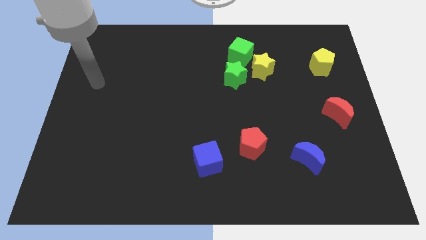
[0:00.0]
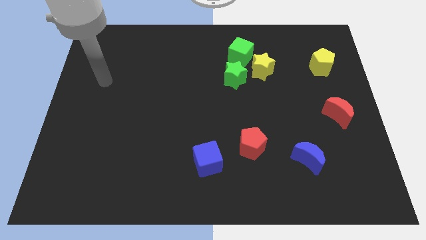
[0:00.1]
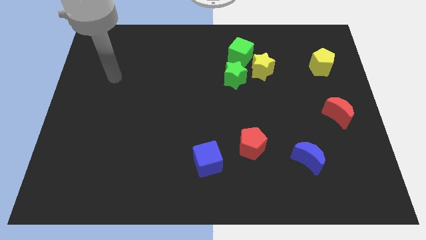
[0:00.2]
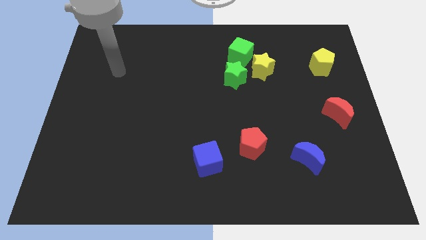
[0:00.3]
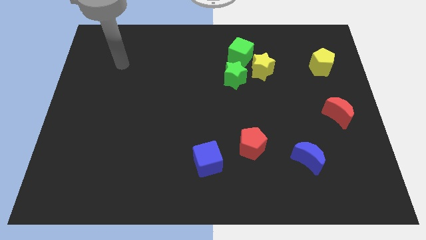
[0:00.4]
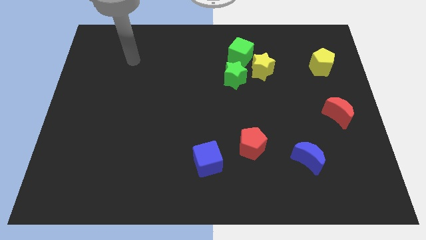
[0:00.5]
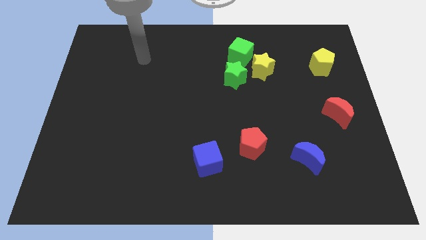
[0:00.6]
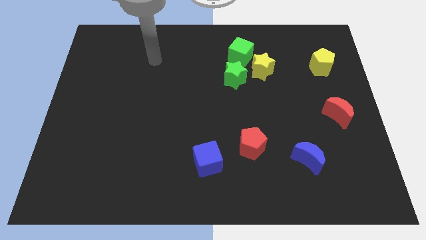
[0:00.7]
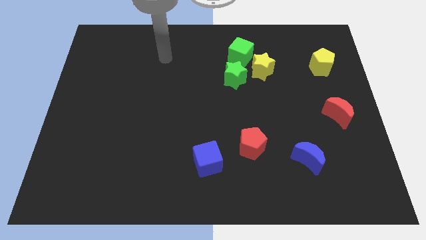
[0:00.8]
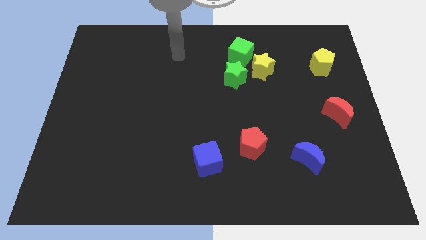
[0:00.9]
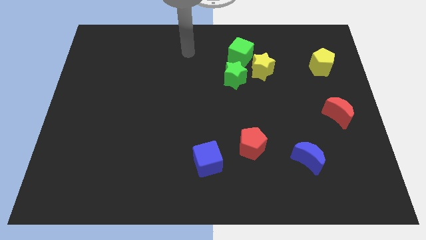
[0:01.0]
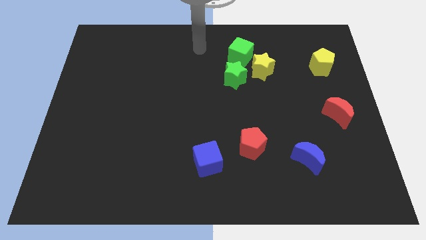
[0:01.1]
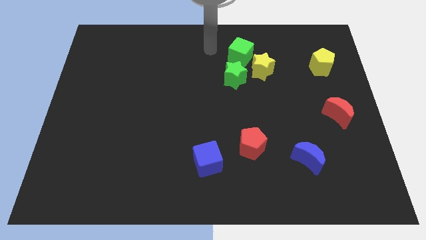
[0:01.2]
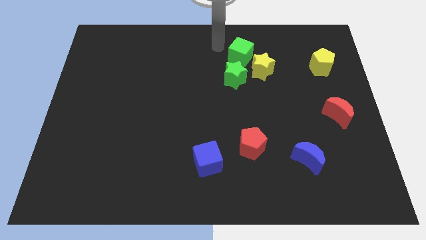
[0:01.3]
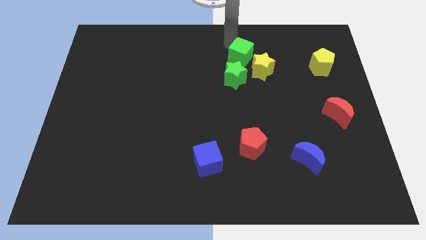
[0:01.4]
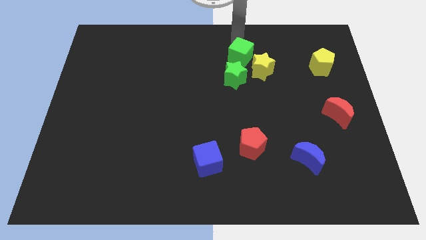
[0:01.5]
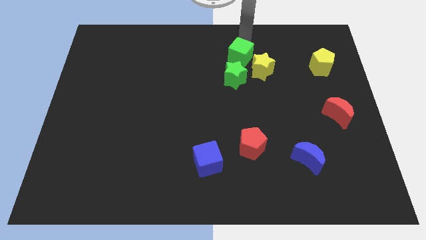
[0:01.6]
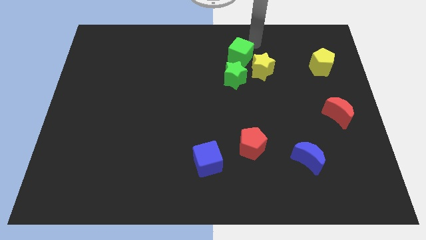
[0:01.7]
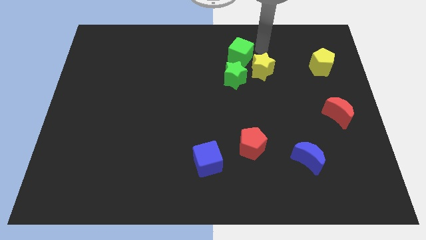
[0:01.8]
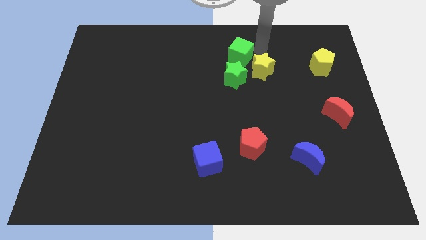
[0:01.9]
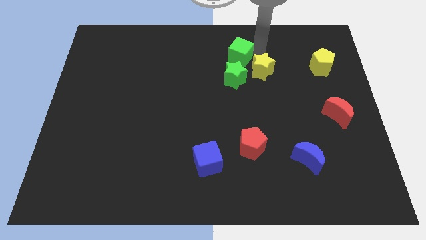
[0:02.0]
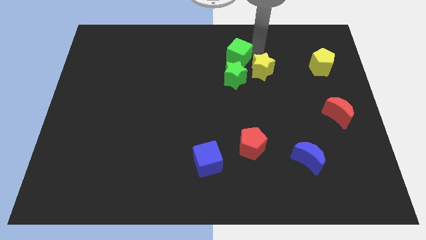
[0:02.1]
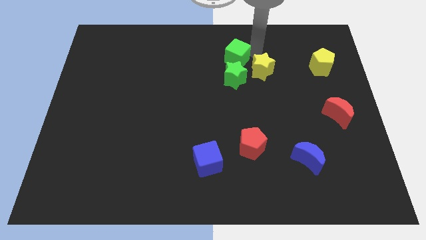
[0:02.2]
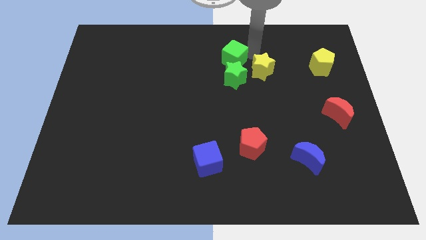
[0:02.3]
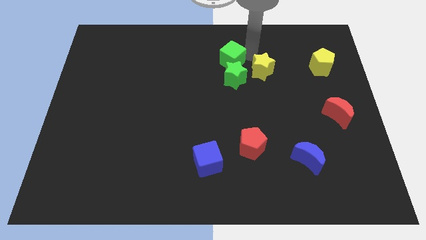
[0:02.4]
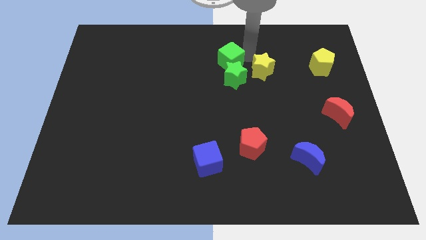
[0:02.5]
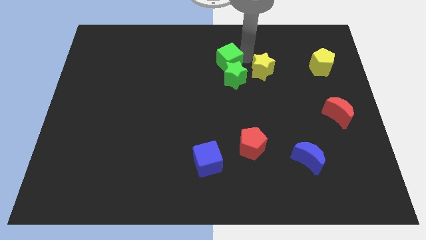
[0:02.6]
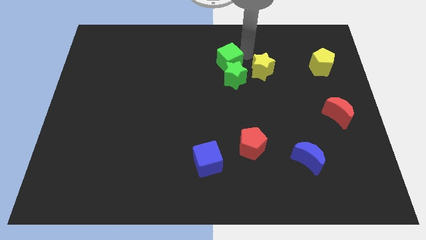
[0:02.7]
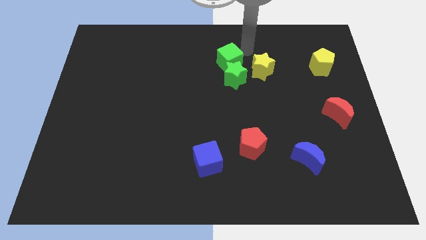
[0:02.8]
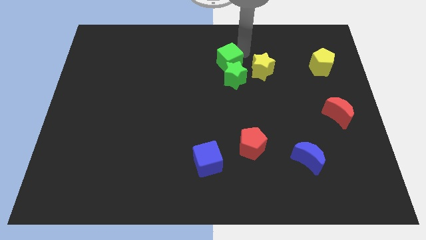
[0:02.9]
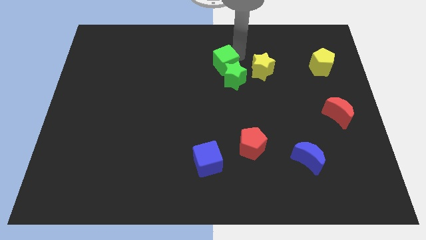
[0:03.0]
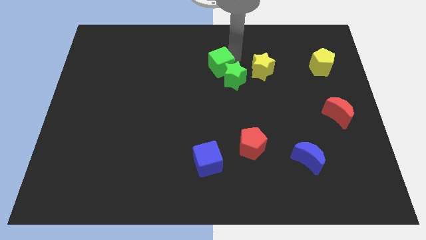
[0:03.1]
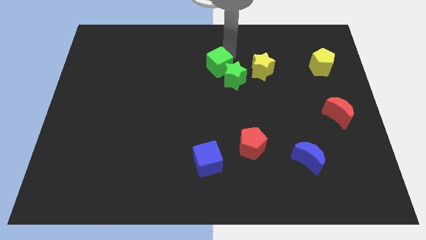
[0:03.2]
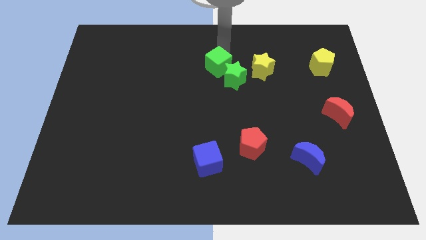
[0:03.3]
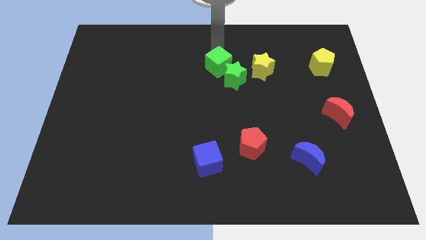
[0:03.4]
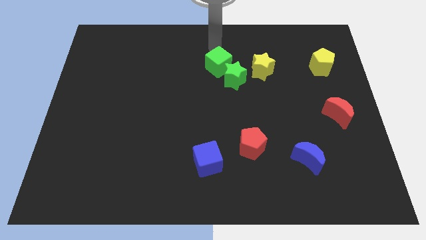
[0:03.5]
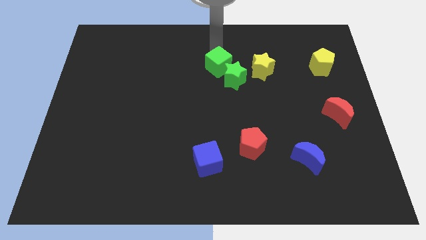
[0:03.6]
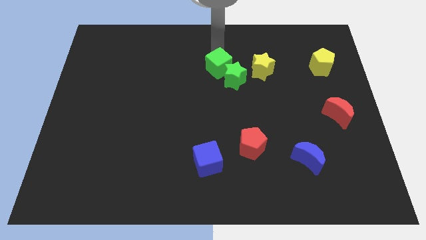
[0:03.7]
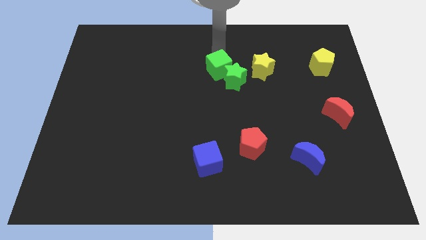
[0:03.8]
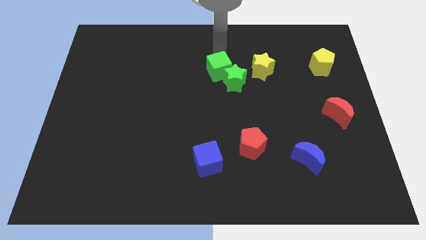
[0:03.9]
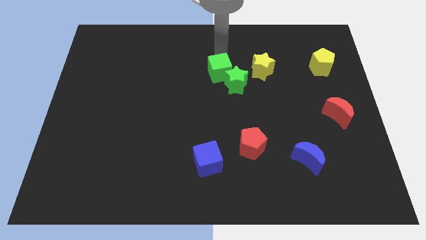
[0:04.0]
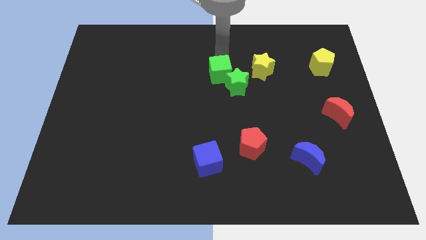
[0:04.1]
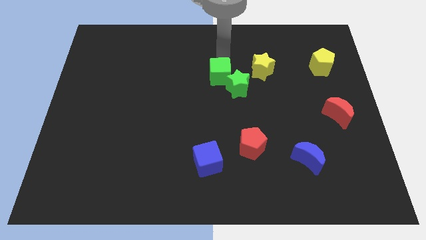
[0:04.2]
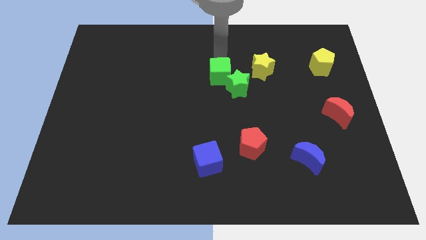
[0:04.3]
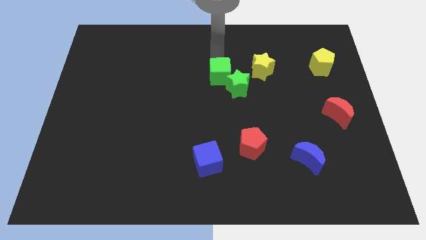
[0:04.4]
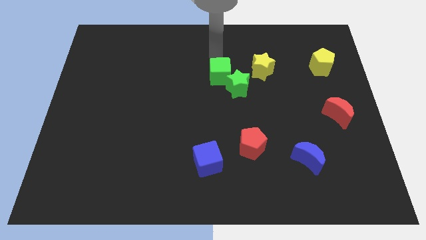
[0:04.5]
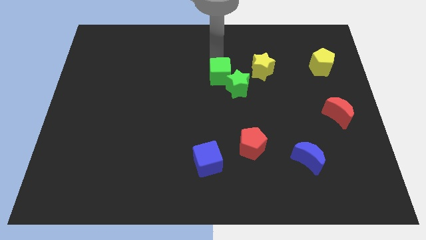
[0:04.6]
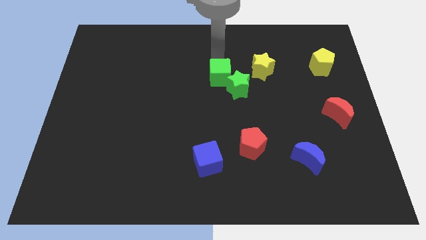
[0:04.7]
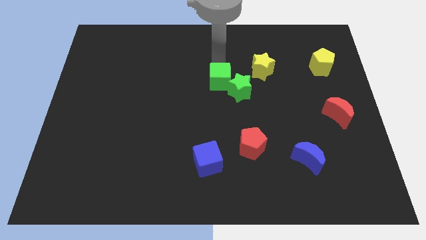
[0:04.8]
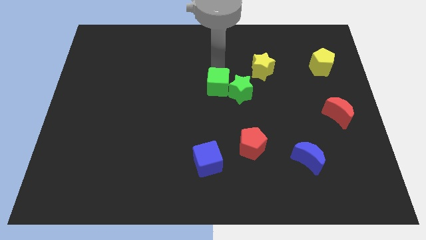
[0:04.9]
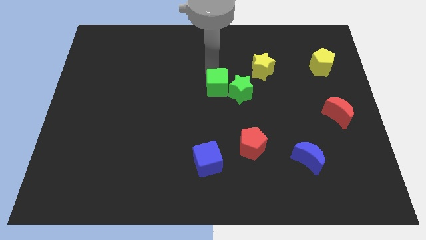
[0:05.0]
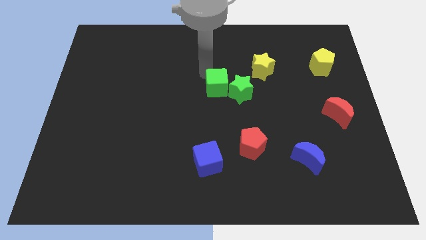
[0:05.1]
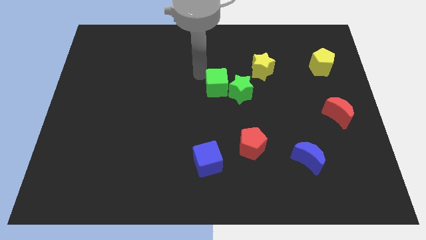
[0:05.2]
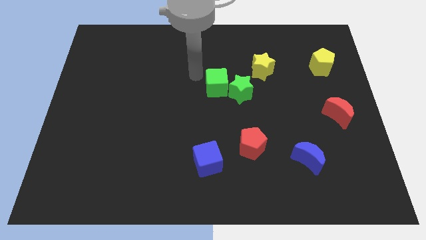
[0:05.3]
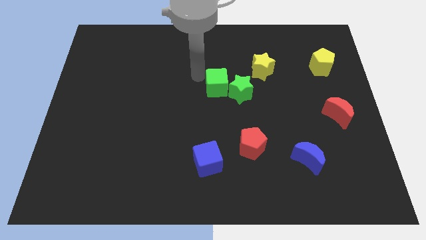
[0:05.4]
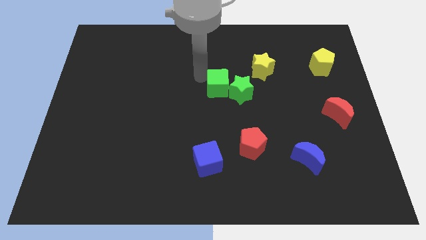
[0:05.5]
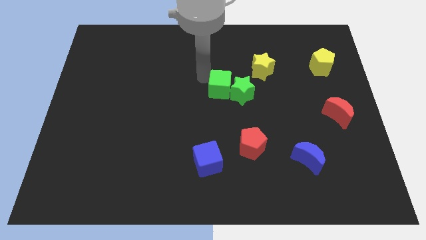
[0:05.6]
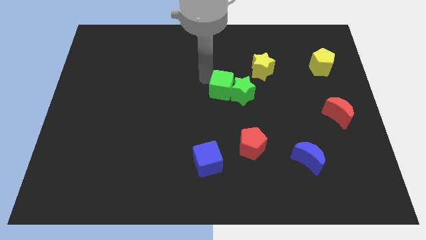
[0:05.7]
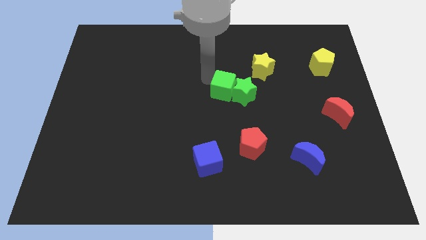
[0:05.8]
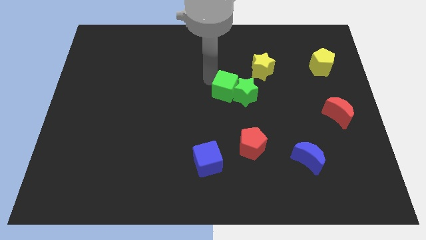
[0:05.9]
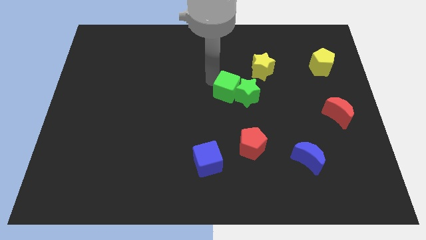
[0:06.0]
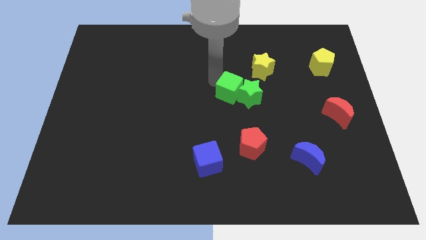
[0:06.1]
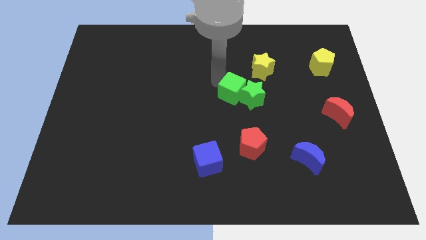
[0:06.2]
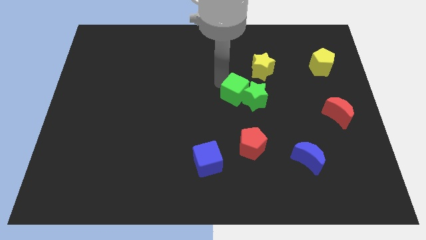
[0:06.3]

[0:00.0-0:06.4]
push the green cube to the top of the red pentagon
